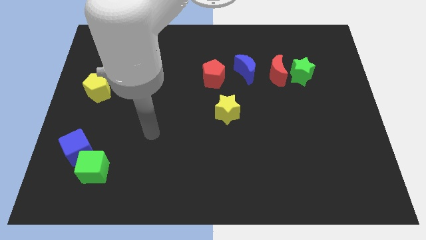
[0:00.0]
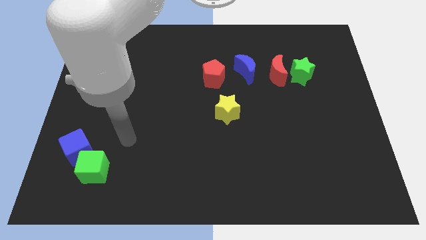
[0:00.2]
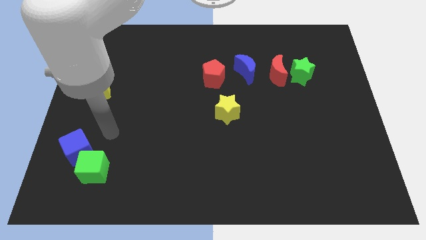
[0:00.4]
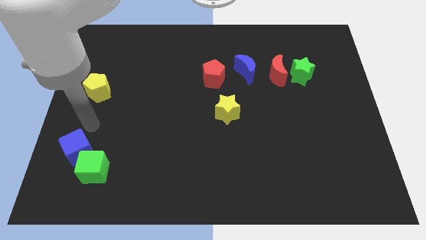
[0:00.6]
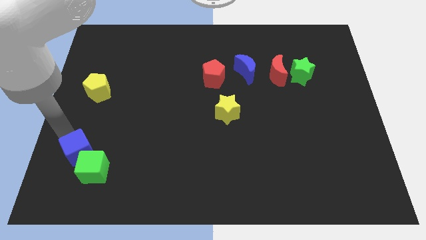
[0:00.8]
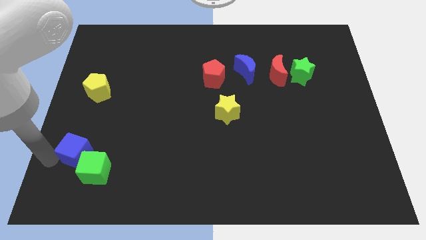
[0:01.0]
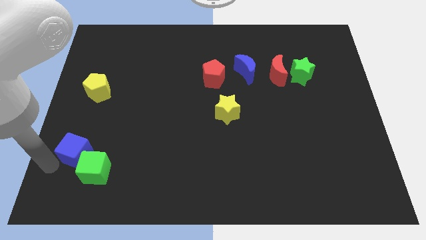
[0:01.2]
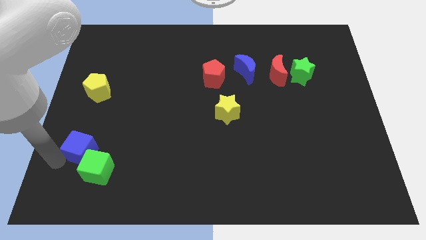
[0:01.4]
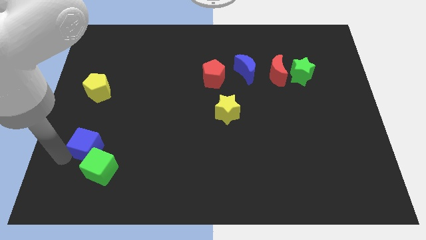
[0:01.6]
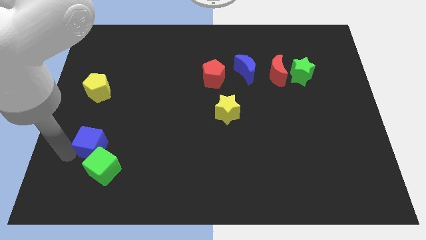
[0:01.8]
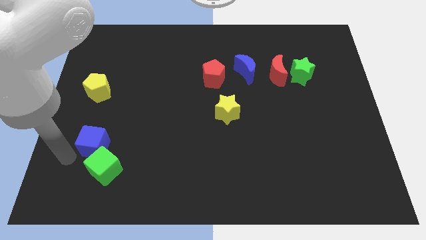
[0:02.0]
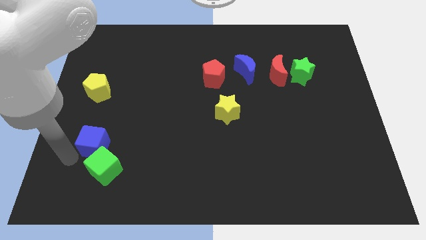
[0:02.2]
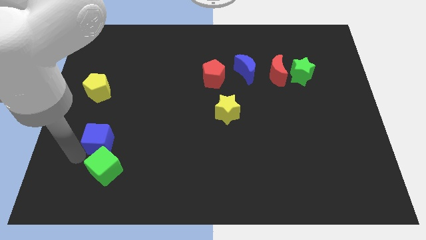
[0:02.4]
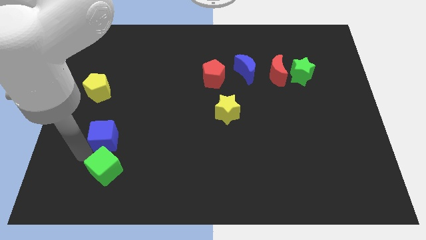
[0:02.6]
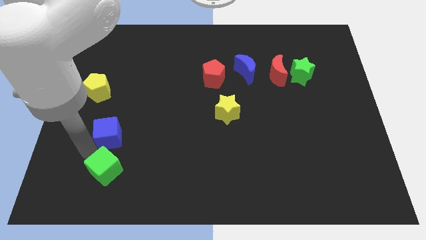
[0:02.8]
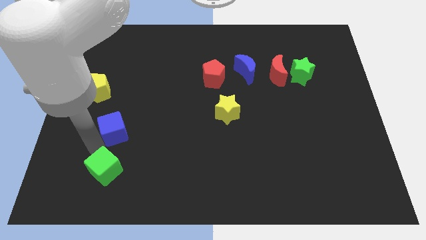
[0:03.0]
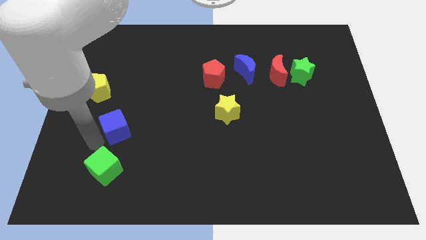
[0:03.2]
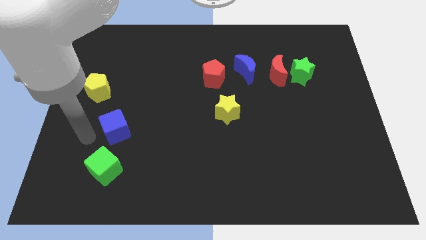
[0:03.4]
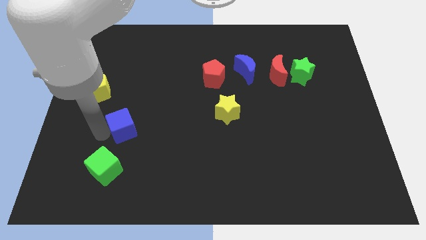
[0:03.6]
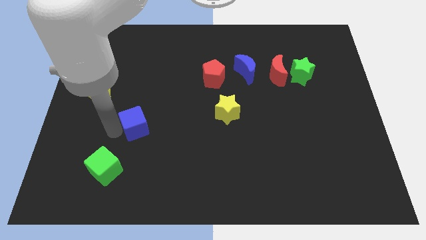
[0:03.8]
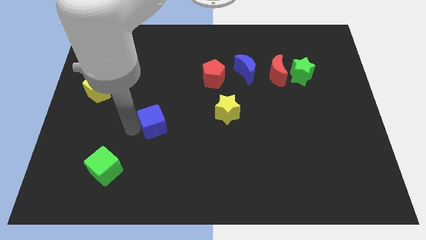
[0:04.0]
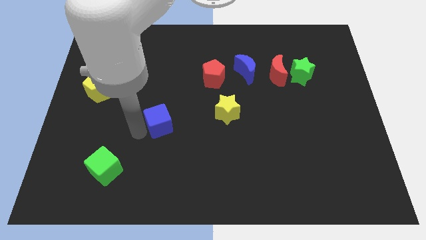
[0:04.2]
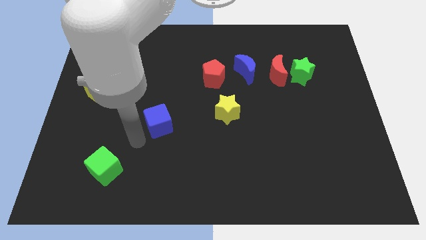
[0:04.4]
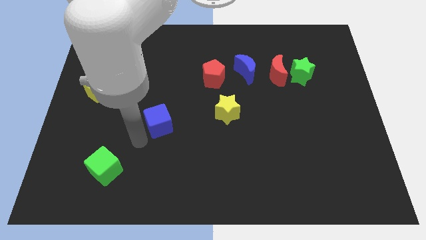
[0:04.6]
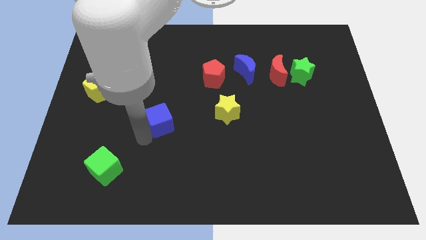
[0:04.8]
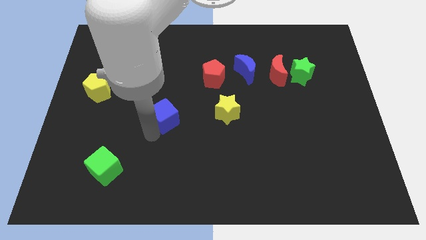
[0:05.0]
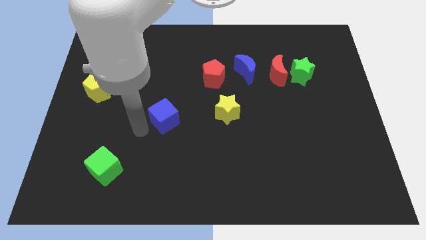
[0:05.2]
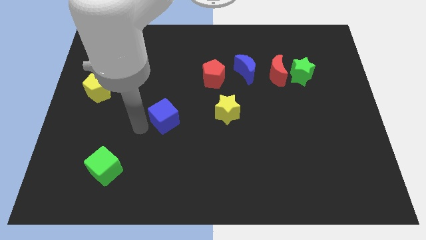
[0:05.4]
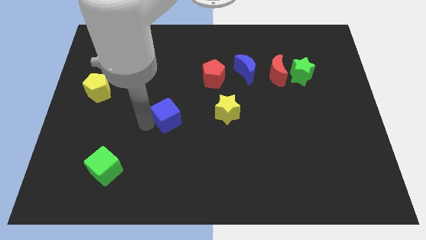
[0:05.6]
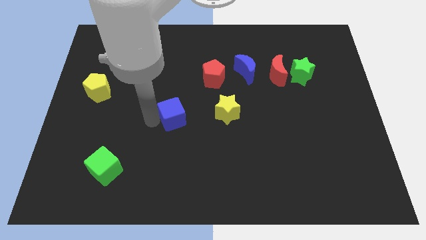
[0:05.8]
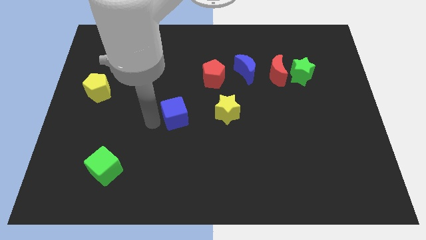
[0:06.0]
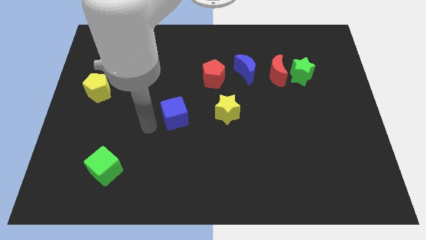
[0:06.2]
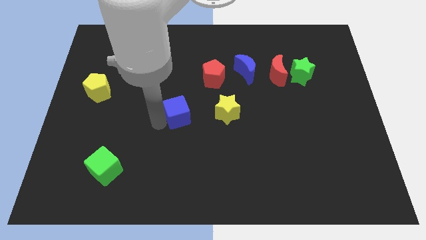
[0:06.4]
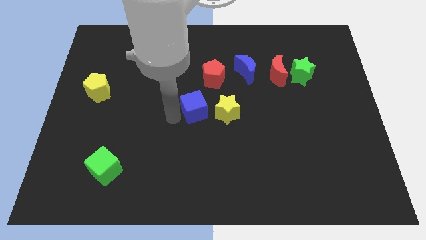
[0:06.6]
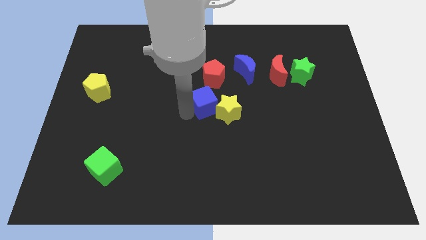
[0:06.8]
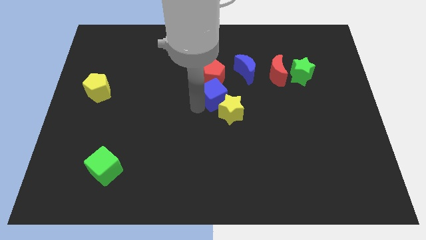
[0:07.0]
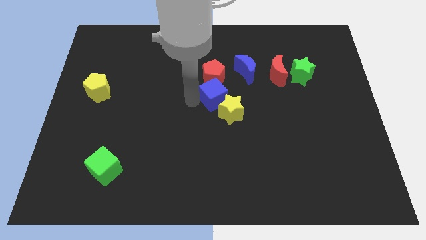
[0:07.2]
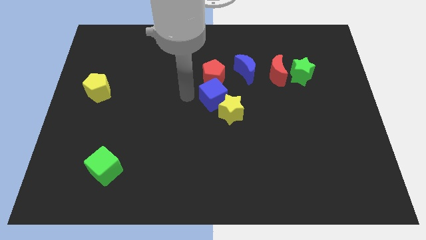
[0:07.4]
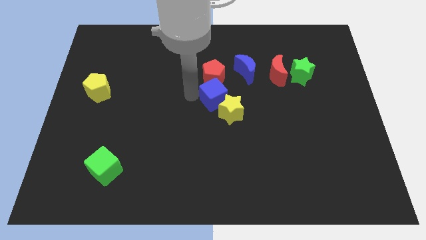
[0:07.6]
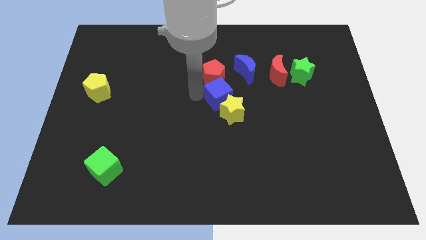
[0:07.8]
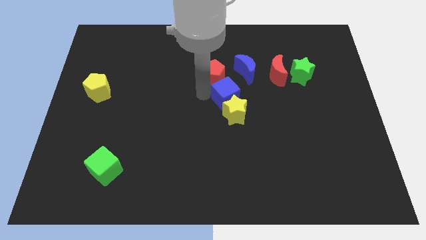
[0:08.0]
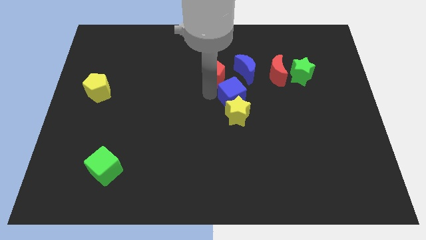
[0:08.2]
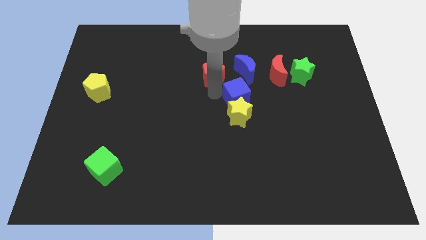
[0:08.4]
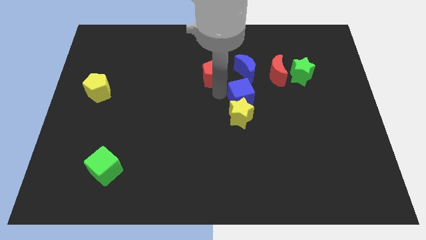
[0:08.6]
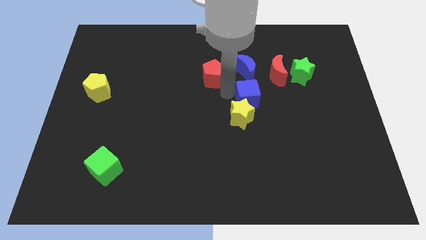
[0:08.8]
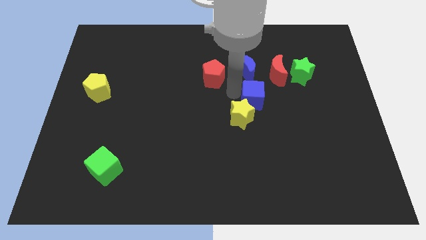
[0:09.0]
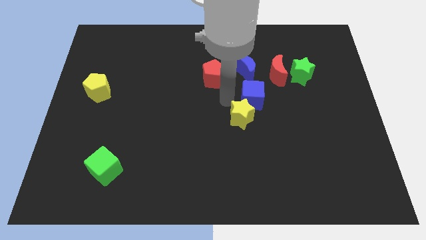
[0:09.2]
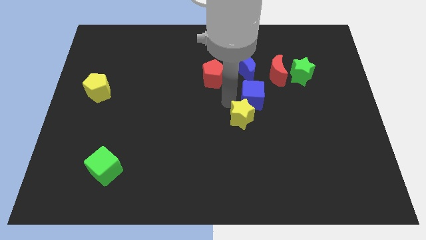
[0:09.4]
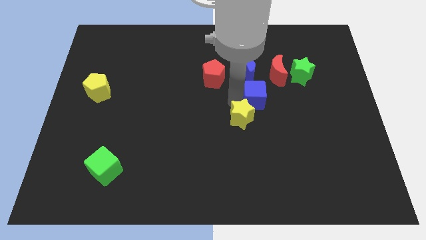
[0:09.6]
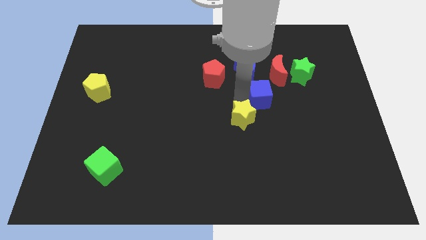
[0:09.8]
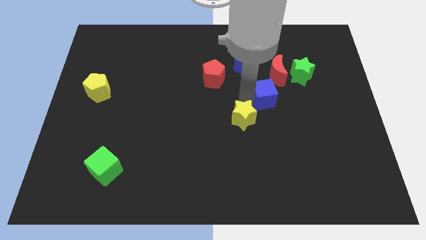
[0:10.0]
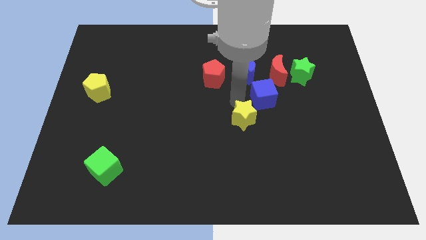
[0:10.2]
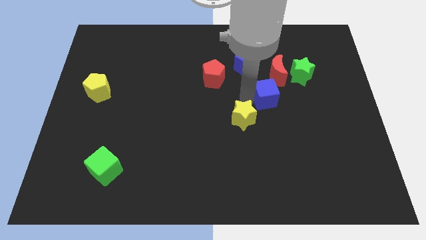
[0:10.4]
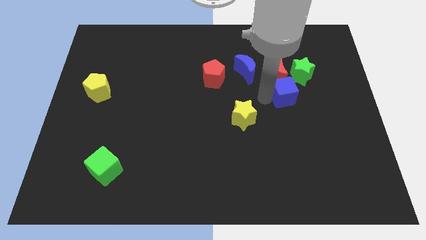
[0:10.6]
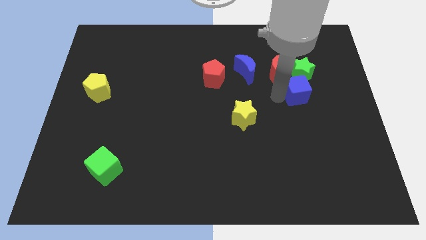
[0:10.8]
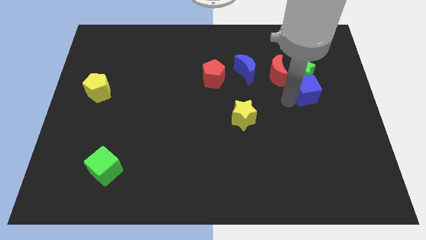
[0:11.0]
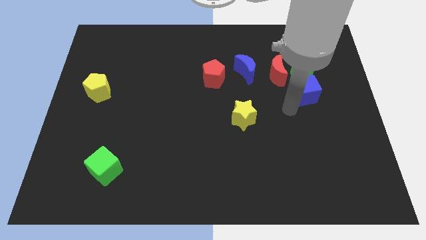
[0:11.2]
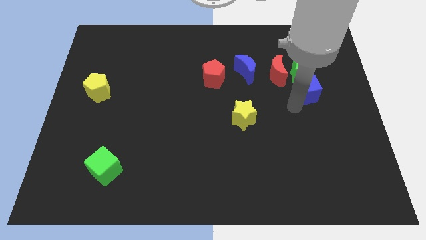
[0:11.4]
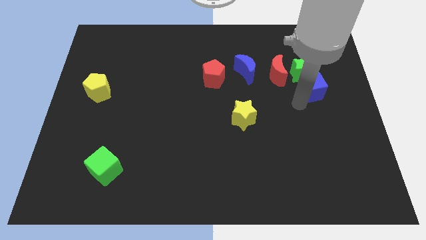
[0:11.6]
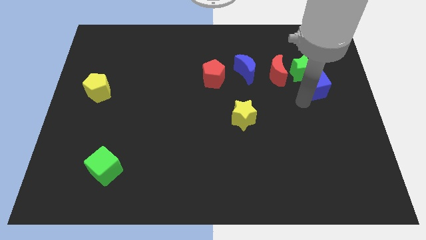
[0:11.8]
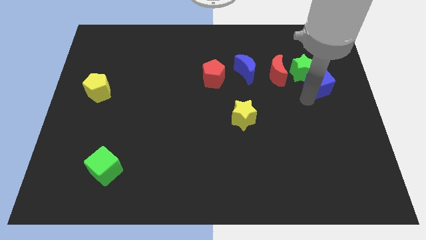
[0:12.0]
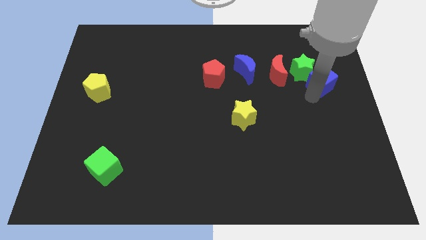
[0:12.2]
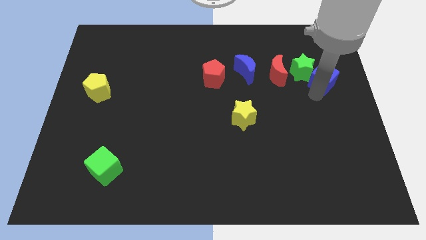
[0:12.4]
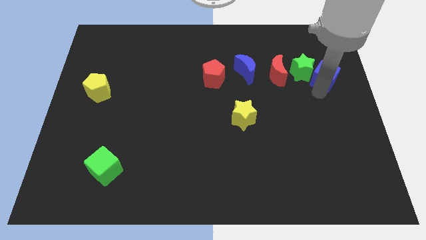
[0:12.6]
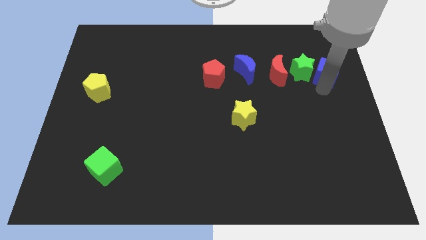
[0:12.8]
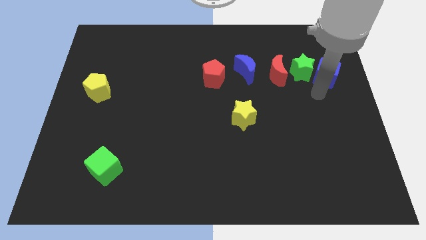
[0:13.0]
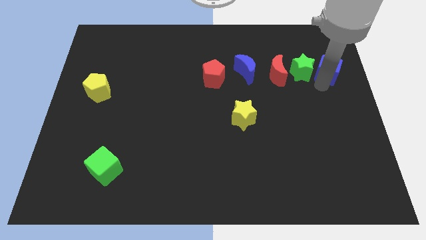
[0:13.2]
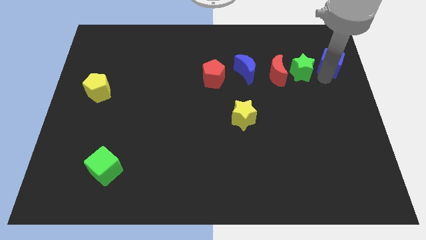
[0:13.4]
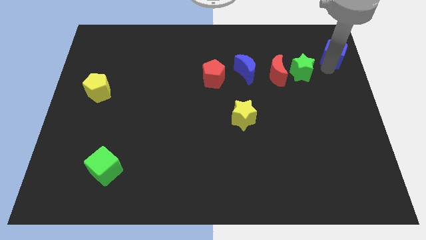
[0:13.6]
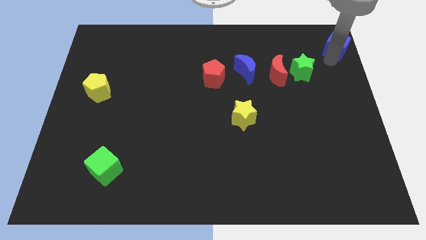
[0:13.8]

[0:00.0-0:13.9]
move the blue cube to the top right of the board
